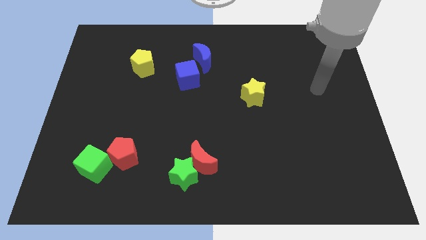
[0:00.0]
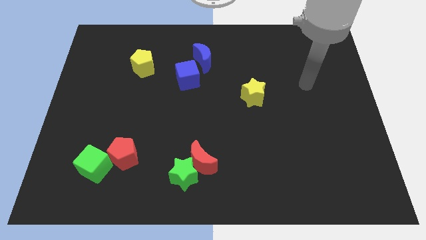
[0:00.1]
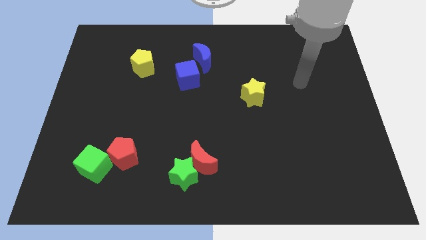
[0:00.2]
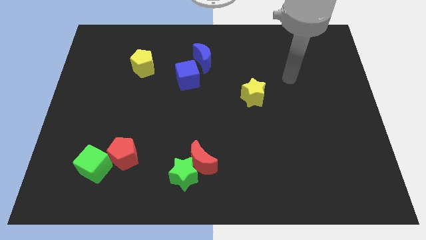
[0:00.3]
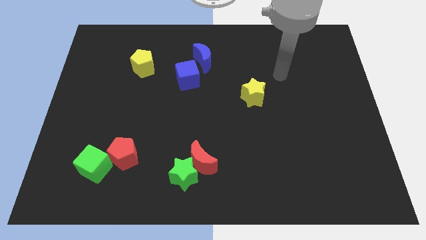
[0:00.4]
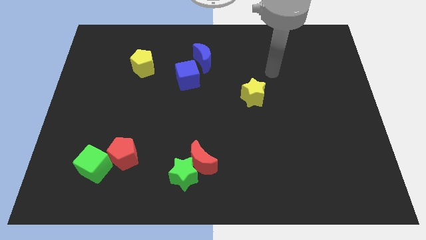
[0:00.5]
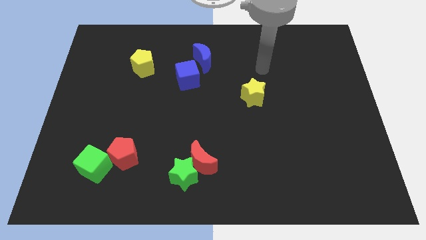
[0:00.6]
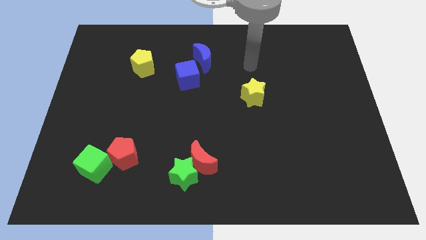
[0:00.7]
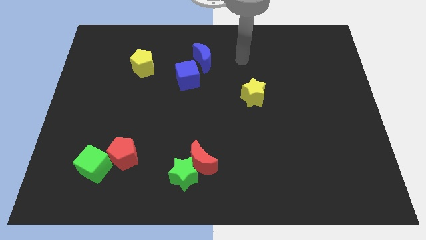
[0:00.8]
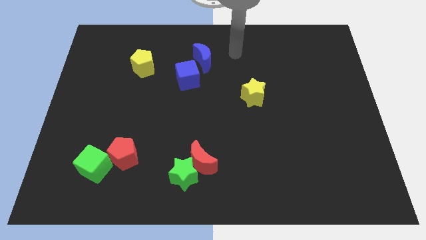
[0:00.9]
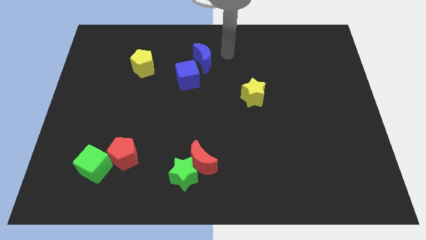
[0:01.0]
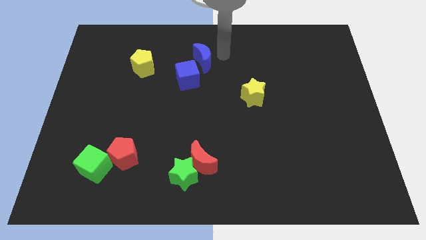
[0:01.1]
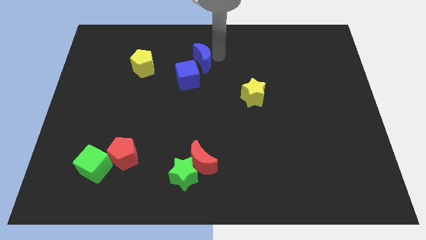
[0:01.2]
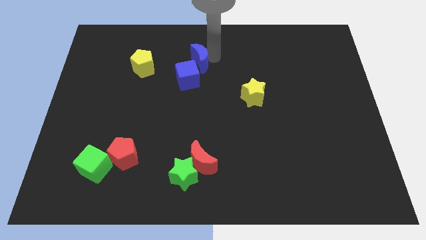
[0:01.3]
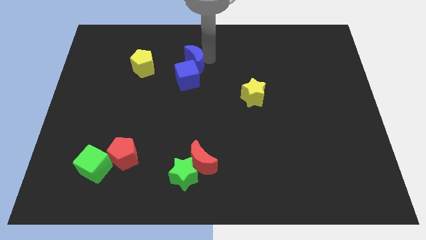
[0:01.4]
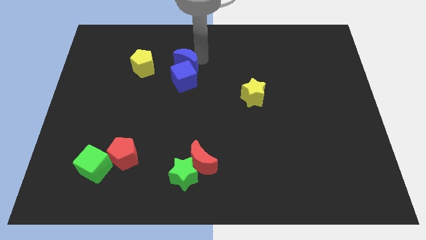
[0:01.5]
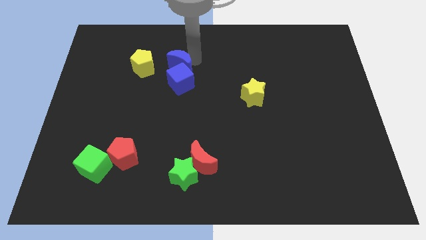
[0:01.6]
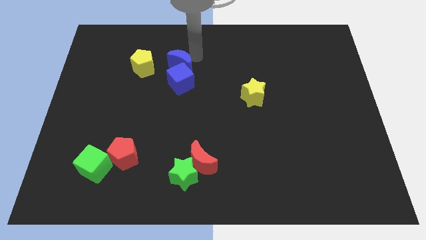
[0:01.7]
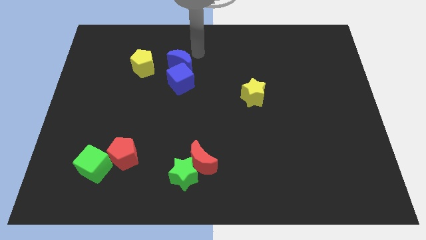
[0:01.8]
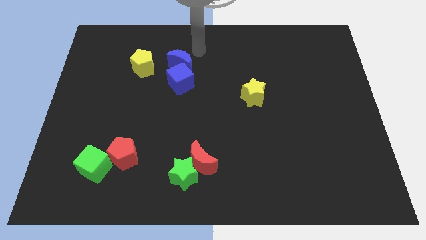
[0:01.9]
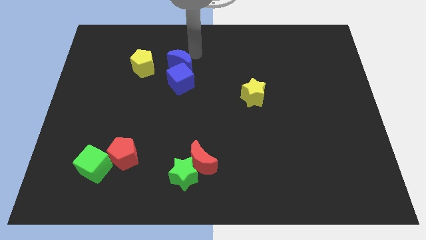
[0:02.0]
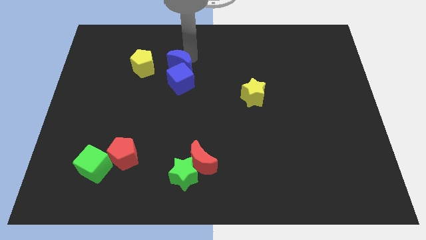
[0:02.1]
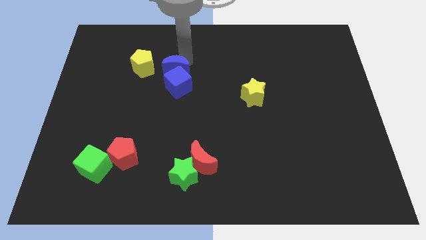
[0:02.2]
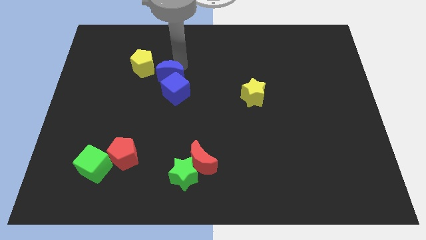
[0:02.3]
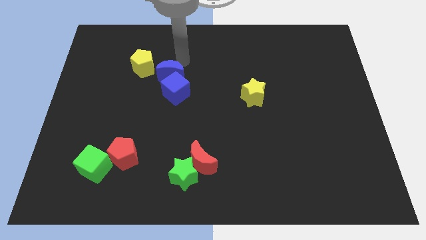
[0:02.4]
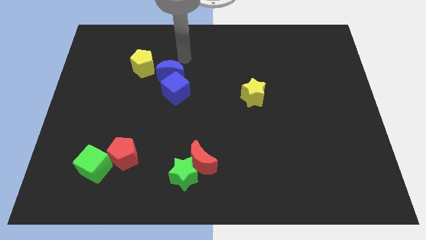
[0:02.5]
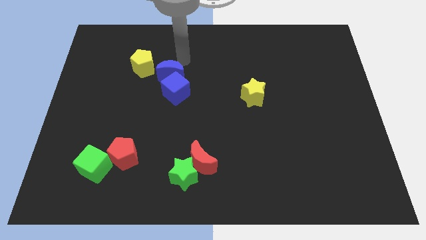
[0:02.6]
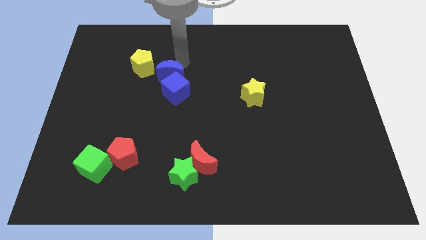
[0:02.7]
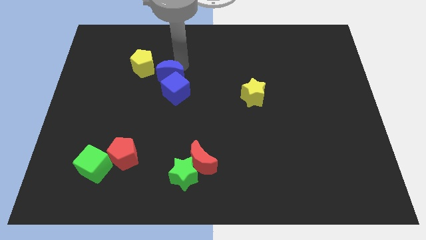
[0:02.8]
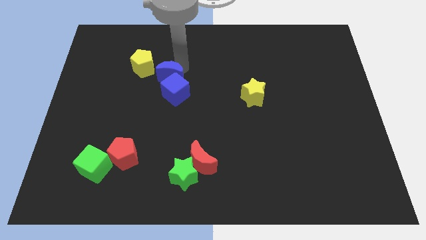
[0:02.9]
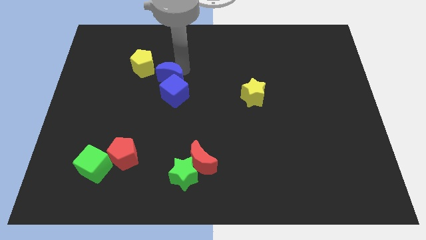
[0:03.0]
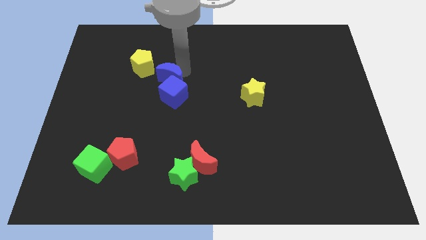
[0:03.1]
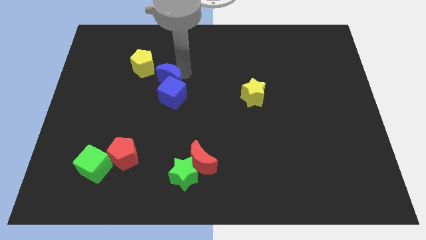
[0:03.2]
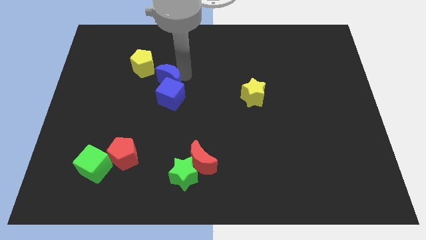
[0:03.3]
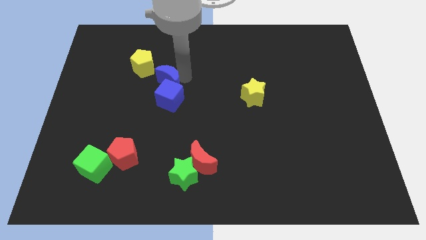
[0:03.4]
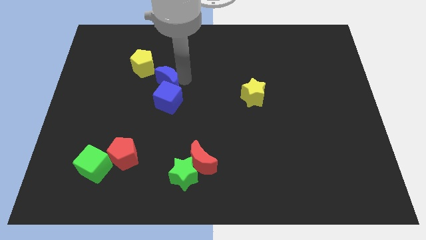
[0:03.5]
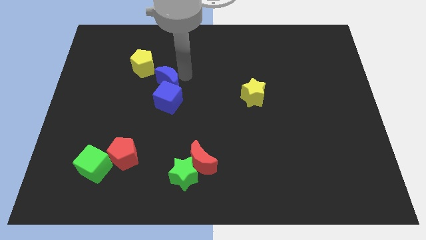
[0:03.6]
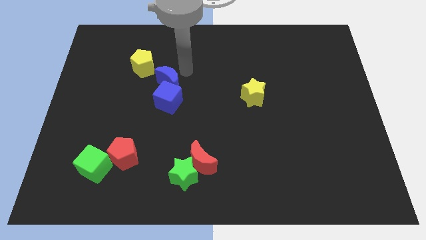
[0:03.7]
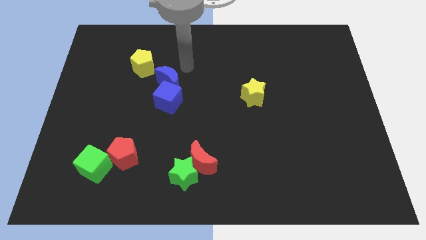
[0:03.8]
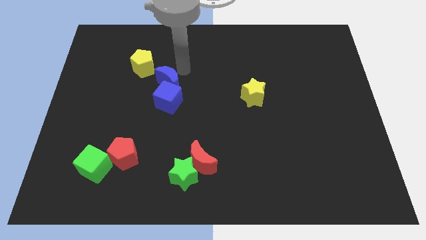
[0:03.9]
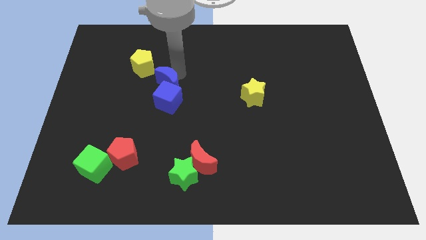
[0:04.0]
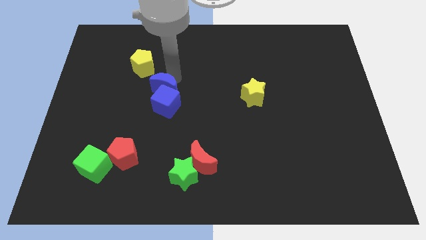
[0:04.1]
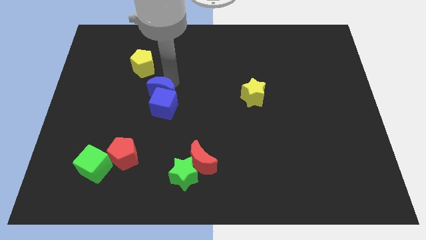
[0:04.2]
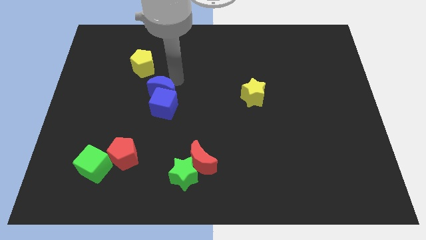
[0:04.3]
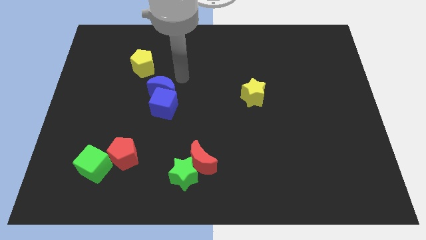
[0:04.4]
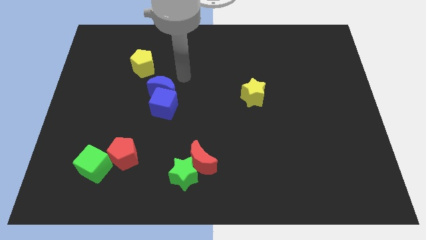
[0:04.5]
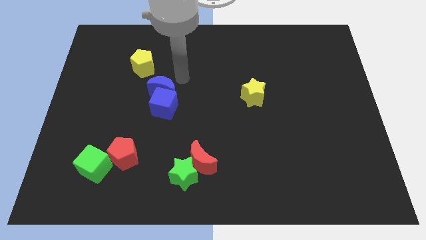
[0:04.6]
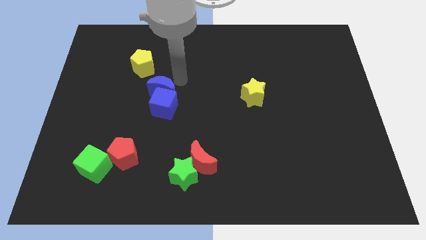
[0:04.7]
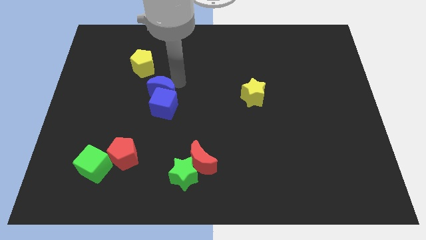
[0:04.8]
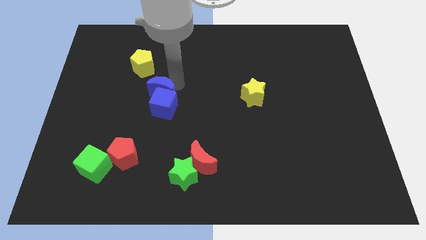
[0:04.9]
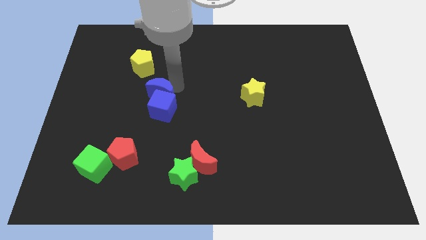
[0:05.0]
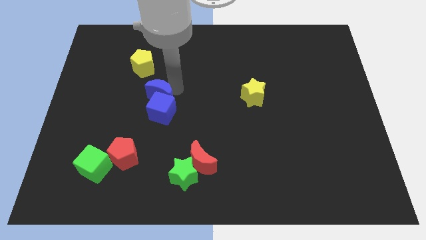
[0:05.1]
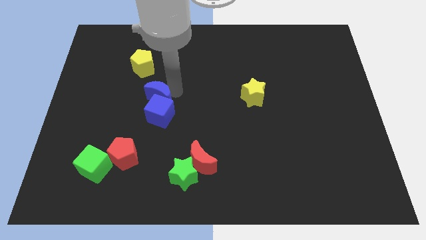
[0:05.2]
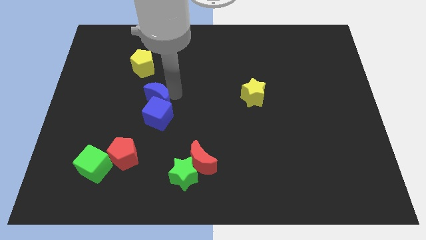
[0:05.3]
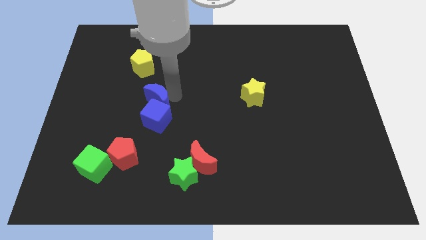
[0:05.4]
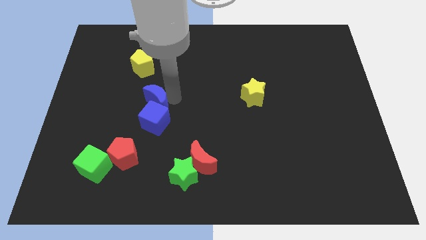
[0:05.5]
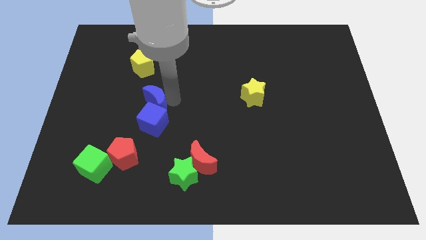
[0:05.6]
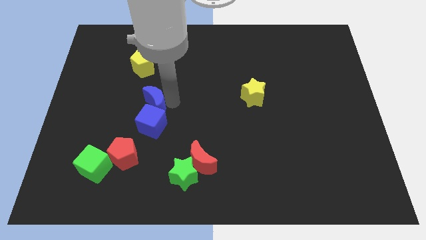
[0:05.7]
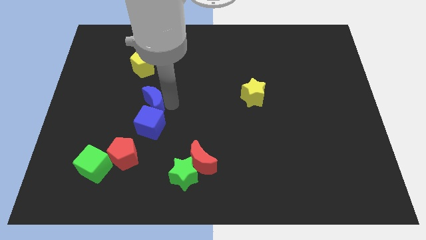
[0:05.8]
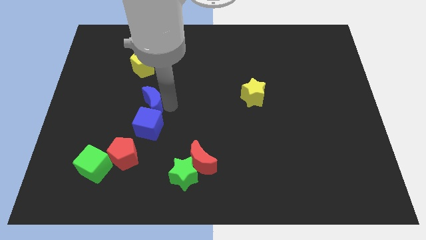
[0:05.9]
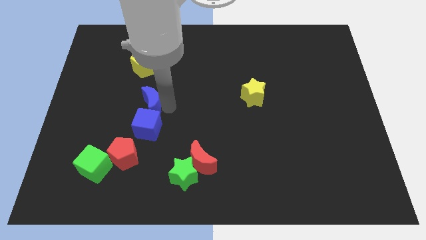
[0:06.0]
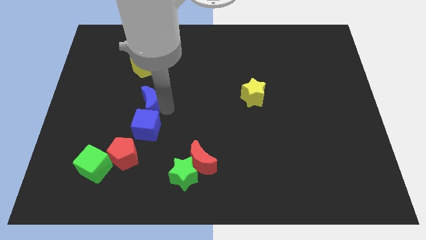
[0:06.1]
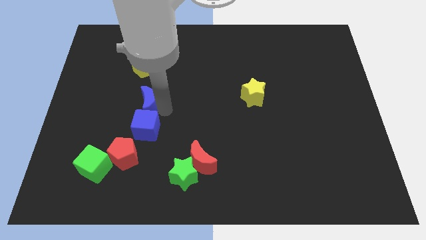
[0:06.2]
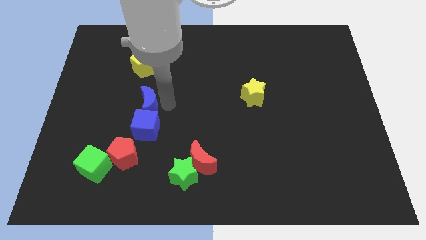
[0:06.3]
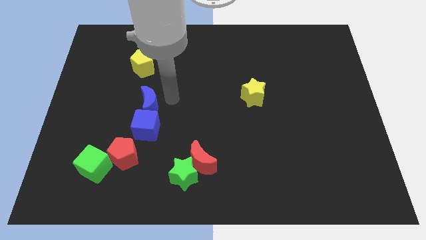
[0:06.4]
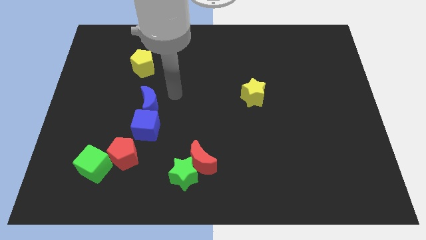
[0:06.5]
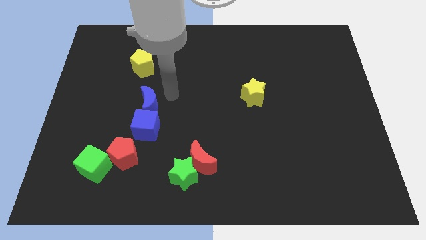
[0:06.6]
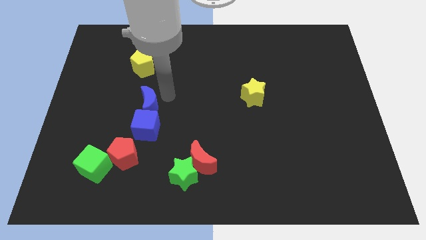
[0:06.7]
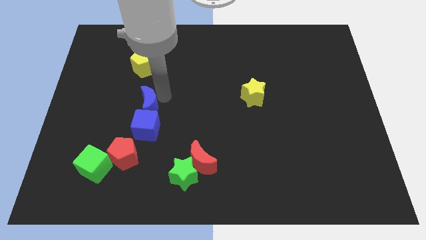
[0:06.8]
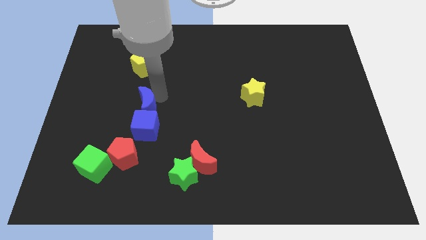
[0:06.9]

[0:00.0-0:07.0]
push the blue moon down and left diagonally

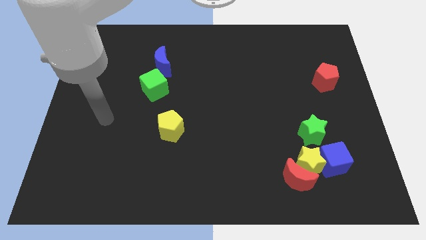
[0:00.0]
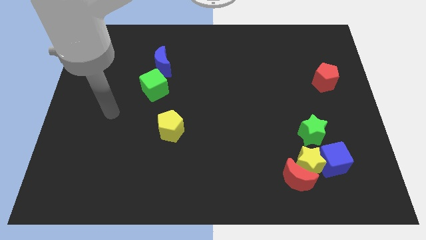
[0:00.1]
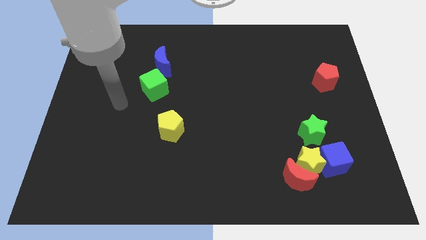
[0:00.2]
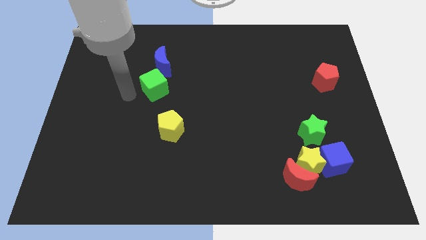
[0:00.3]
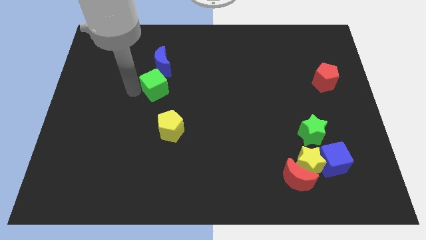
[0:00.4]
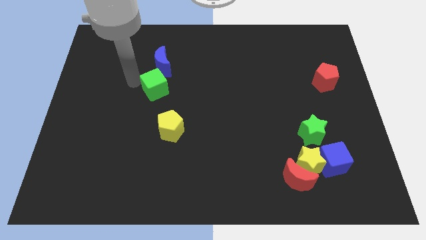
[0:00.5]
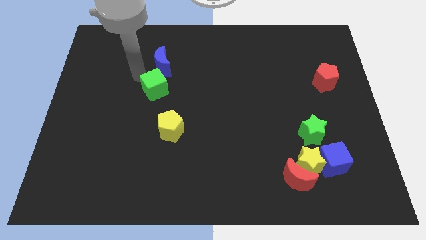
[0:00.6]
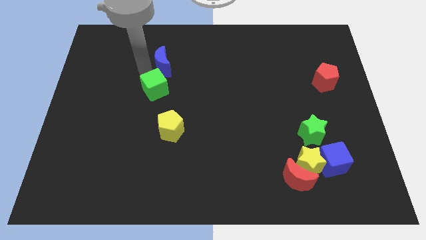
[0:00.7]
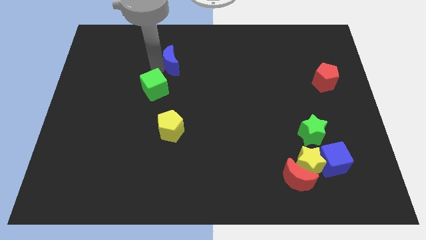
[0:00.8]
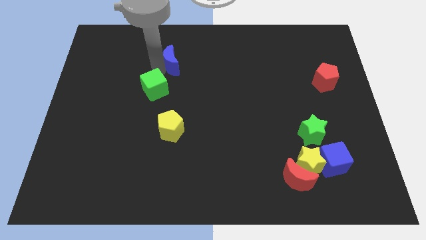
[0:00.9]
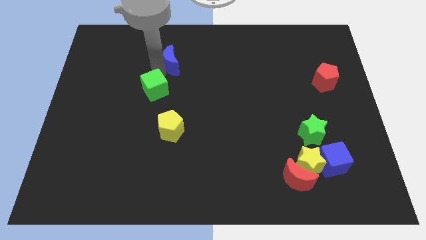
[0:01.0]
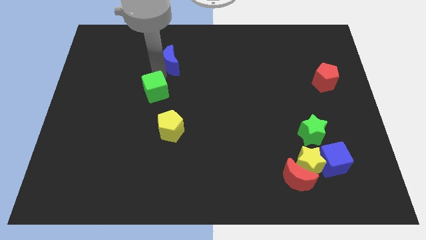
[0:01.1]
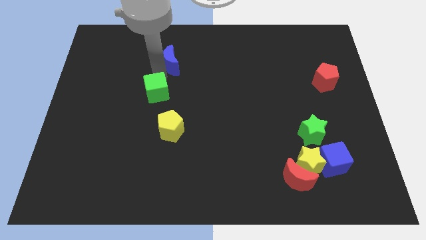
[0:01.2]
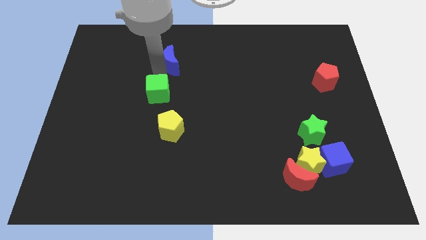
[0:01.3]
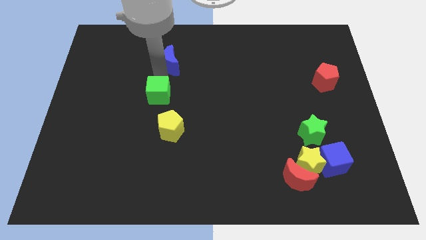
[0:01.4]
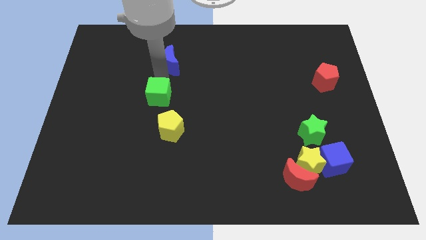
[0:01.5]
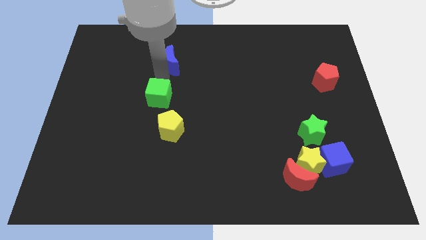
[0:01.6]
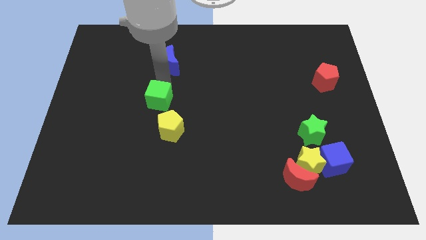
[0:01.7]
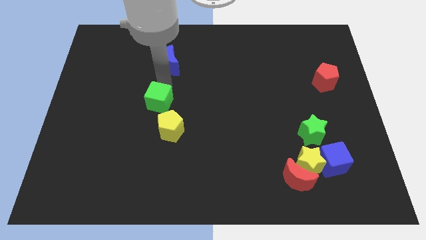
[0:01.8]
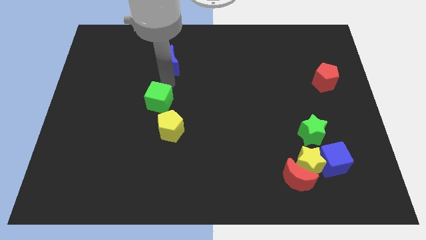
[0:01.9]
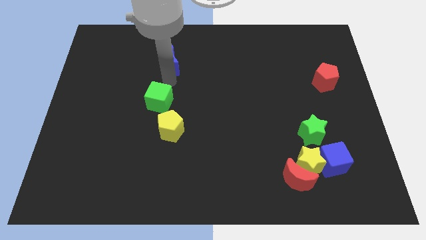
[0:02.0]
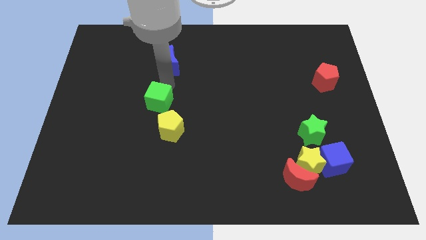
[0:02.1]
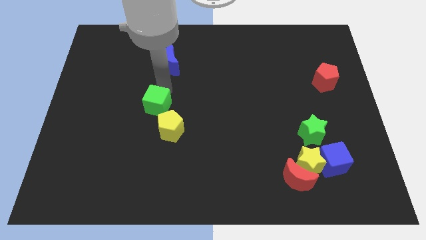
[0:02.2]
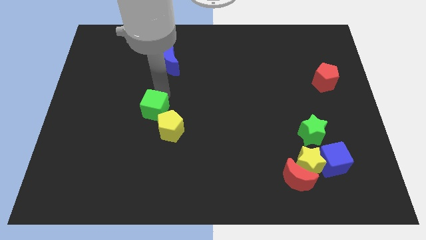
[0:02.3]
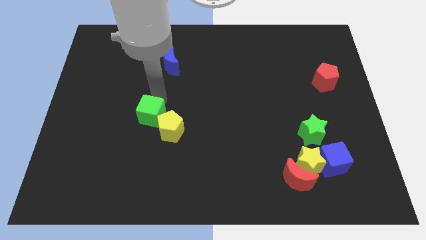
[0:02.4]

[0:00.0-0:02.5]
slightly push the green cube down
